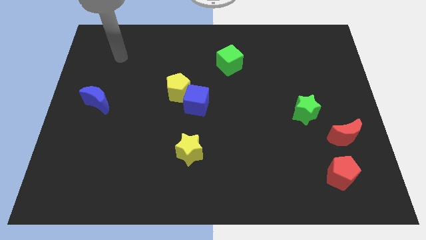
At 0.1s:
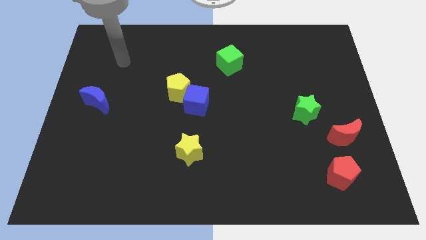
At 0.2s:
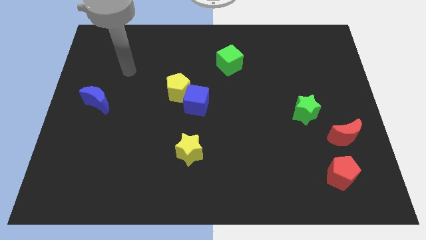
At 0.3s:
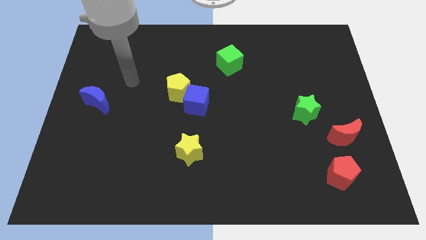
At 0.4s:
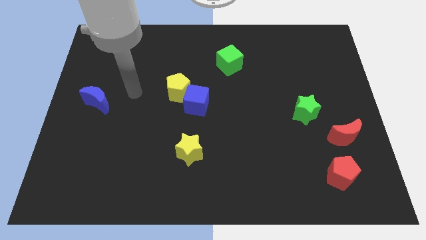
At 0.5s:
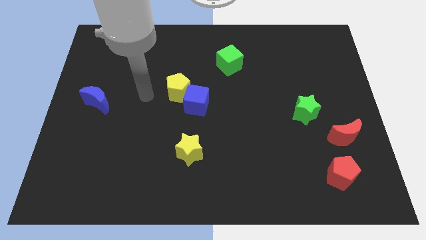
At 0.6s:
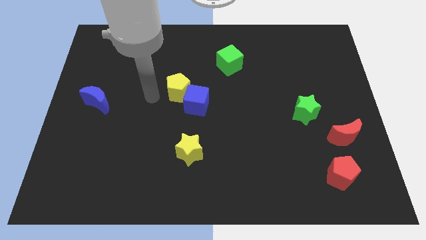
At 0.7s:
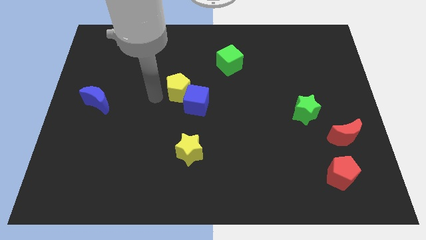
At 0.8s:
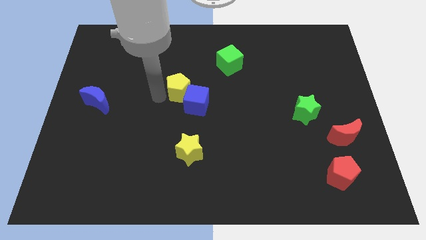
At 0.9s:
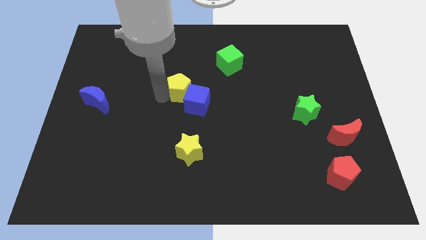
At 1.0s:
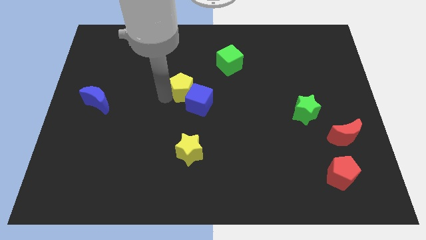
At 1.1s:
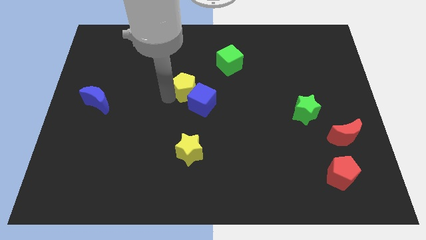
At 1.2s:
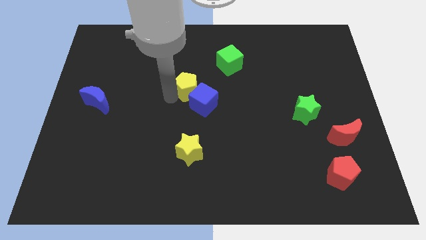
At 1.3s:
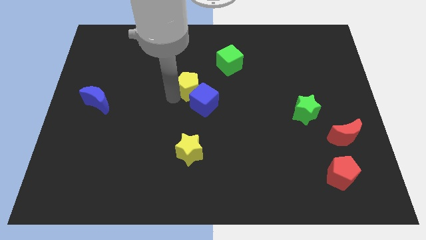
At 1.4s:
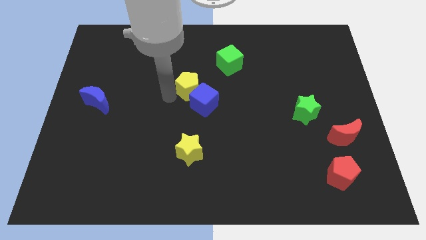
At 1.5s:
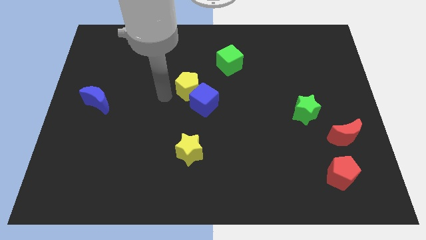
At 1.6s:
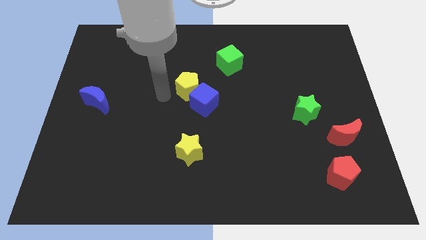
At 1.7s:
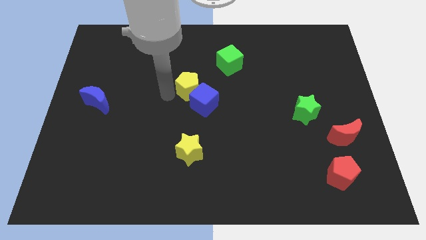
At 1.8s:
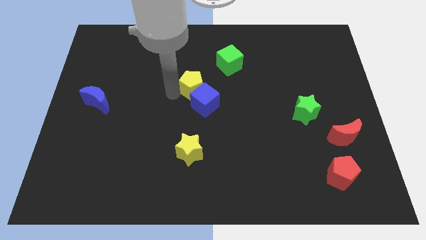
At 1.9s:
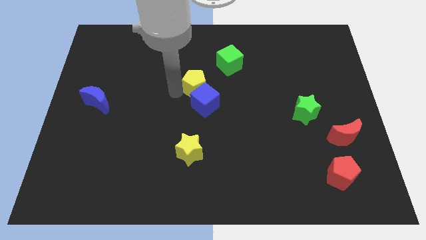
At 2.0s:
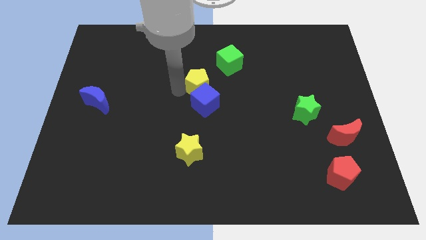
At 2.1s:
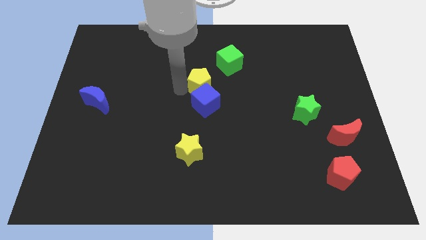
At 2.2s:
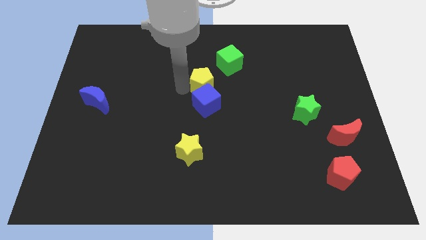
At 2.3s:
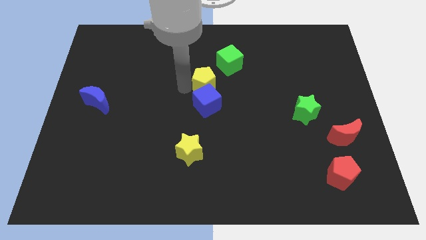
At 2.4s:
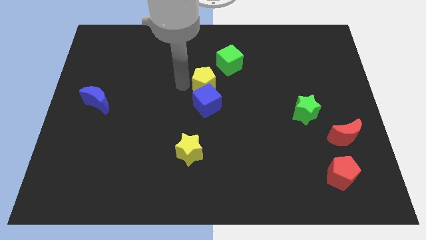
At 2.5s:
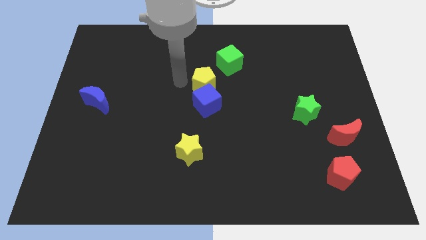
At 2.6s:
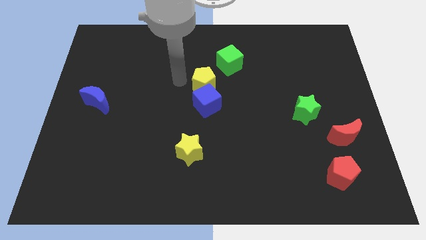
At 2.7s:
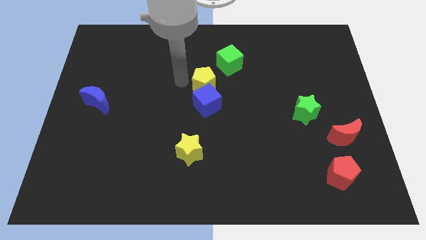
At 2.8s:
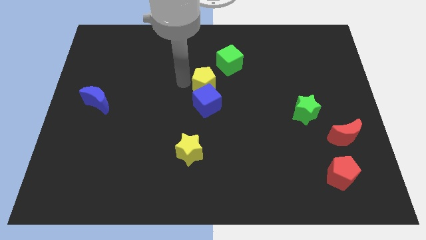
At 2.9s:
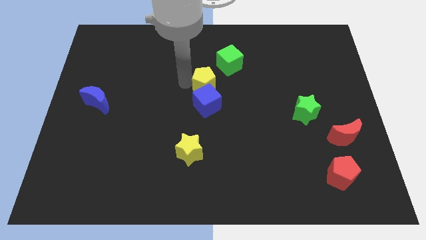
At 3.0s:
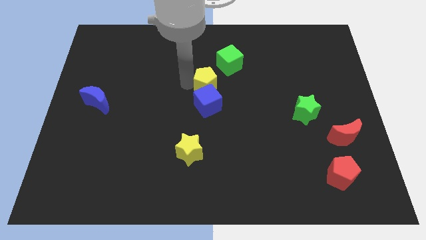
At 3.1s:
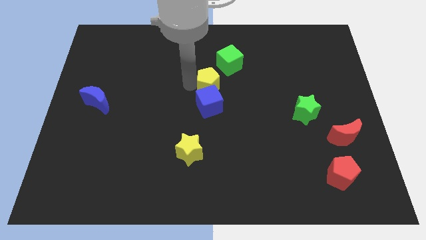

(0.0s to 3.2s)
slide the yellow pentagon right a little

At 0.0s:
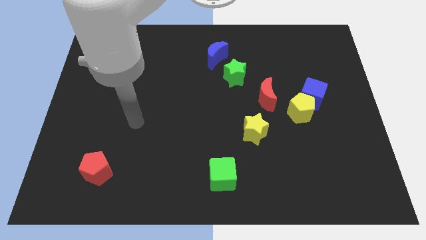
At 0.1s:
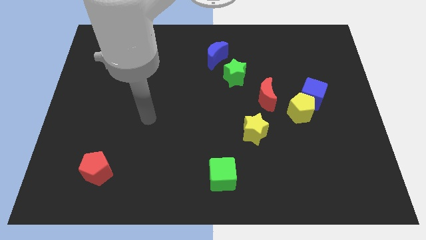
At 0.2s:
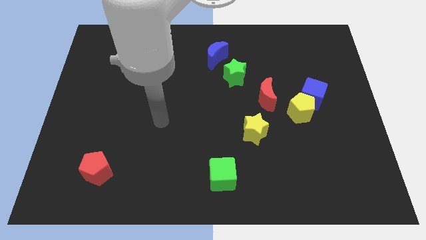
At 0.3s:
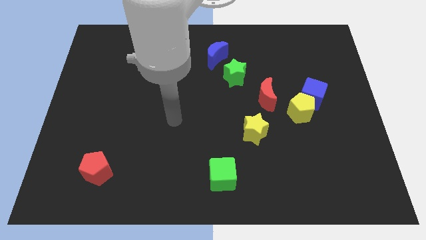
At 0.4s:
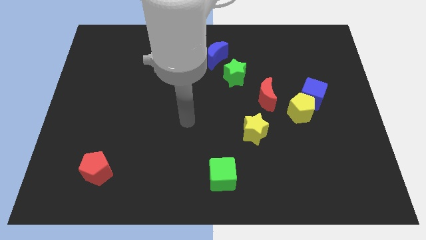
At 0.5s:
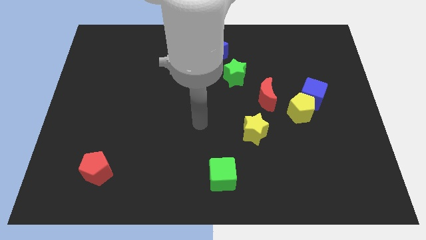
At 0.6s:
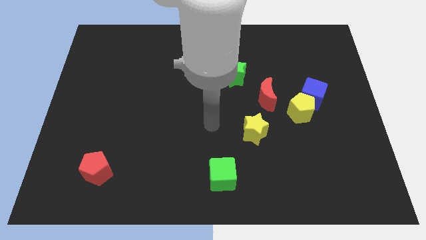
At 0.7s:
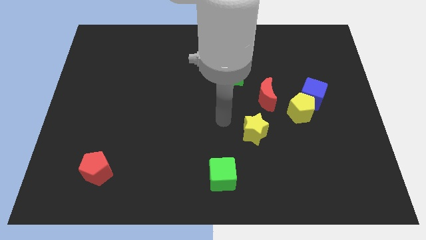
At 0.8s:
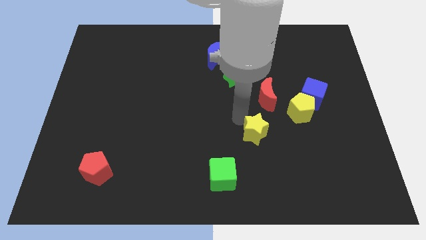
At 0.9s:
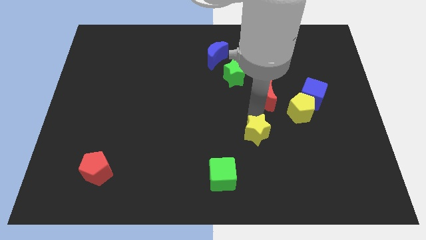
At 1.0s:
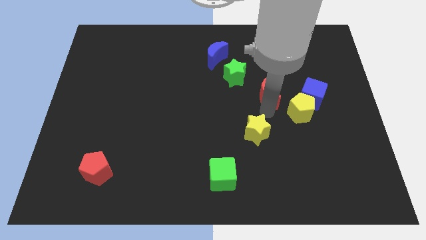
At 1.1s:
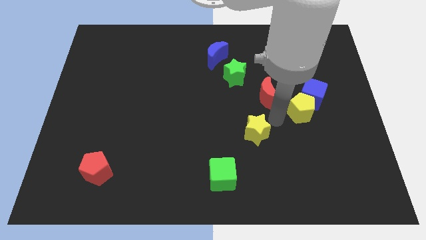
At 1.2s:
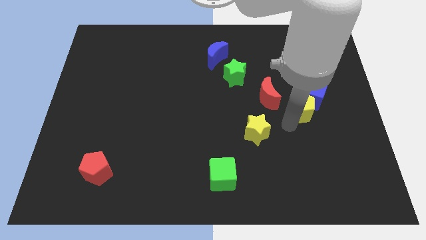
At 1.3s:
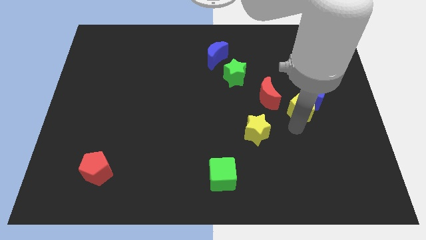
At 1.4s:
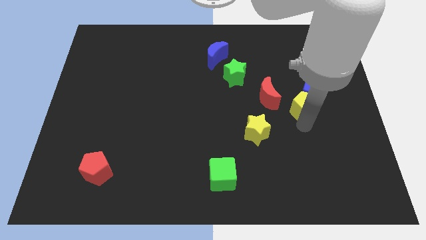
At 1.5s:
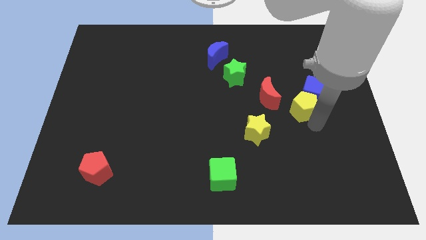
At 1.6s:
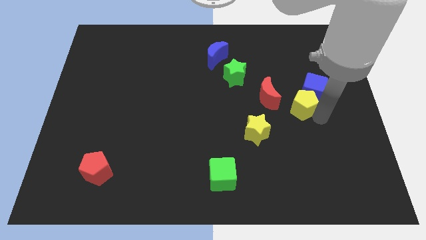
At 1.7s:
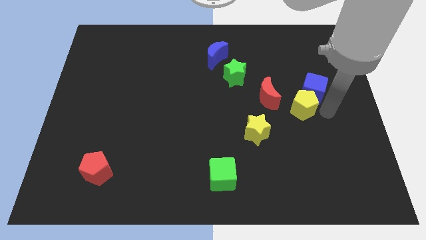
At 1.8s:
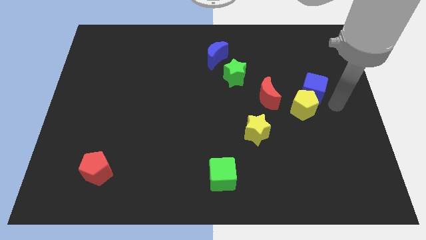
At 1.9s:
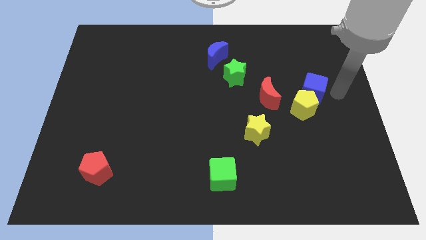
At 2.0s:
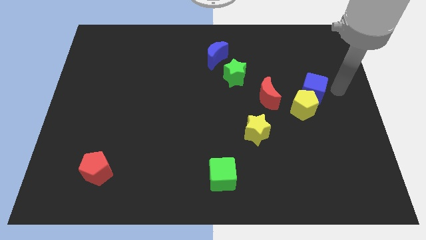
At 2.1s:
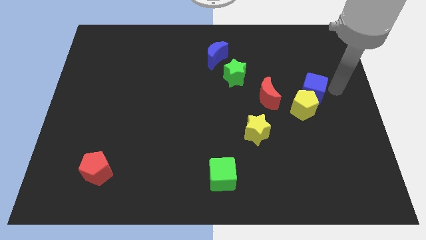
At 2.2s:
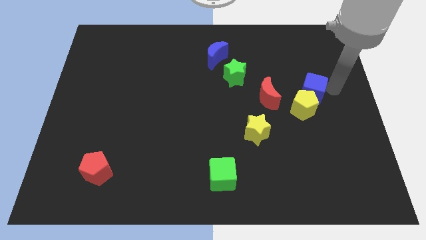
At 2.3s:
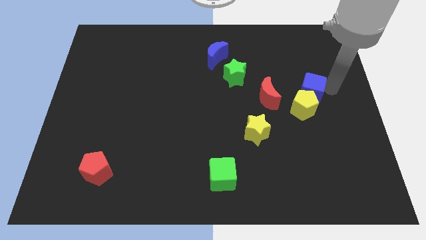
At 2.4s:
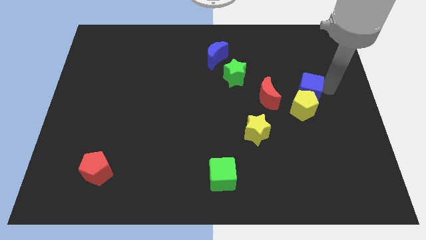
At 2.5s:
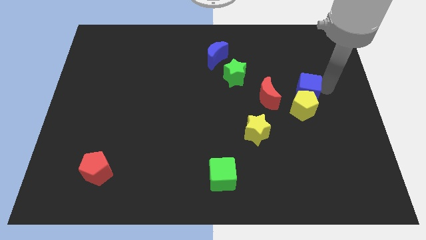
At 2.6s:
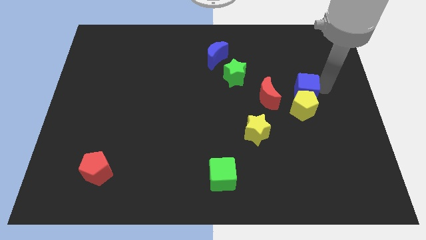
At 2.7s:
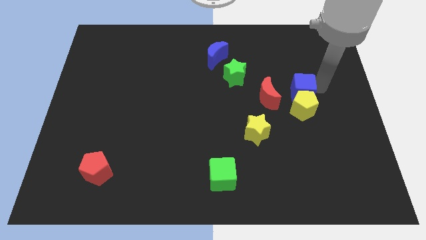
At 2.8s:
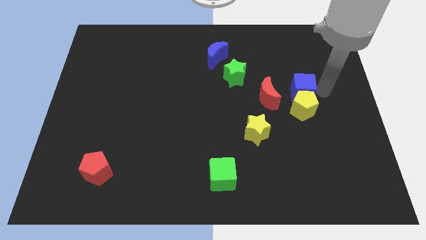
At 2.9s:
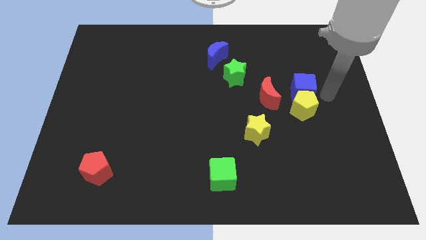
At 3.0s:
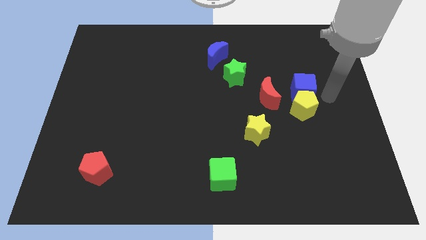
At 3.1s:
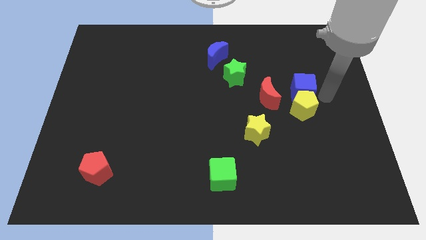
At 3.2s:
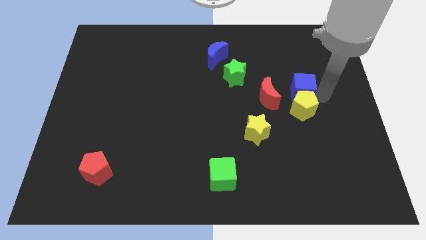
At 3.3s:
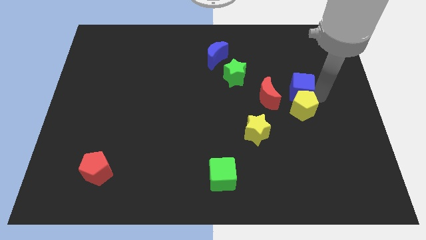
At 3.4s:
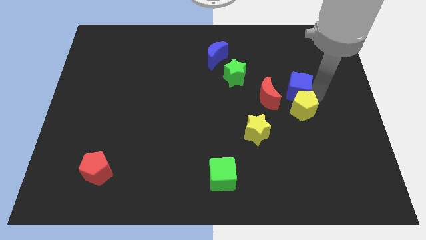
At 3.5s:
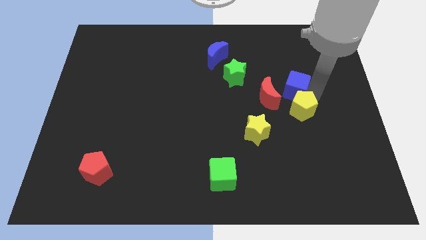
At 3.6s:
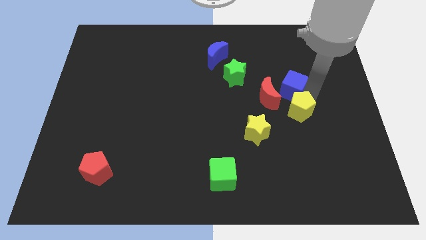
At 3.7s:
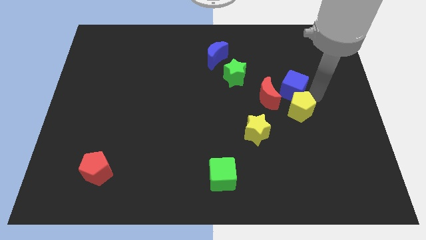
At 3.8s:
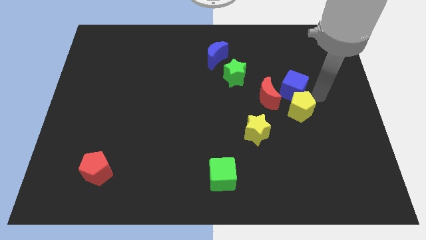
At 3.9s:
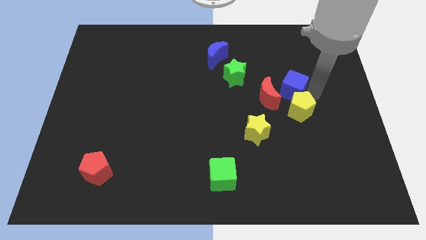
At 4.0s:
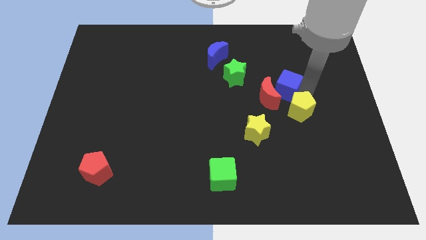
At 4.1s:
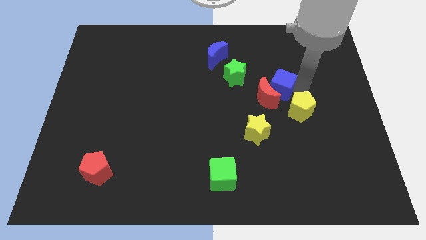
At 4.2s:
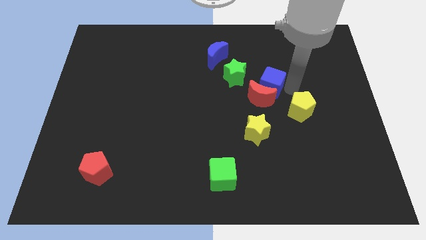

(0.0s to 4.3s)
push the blue cube to the left a little

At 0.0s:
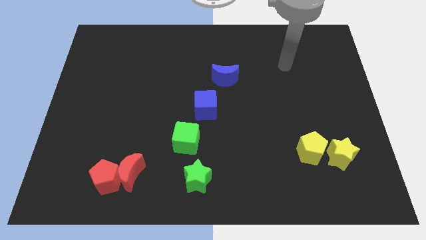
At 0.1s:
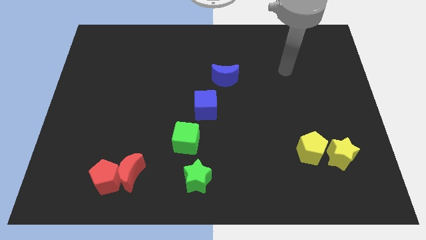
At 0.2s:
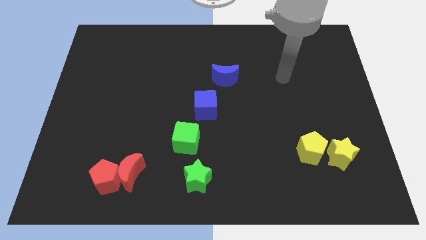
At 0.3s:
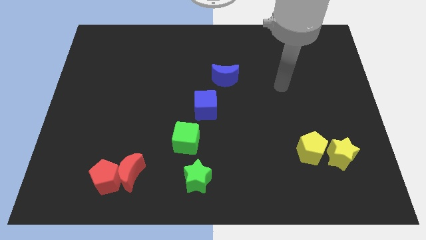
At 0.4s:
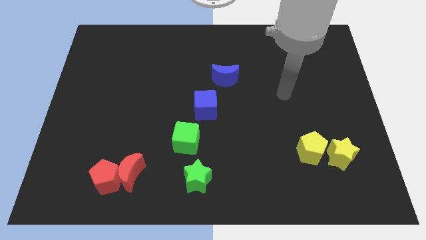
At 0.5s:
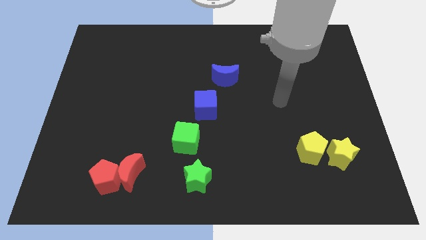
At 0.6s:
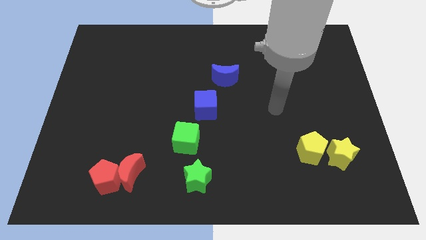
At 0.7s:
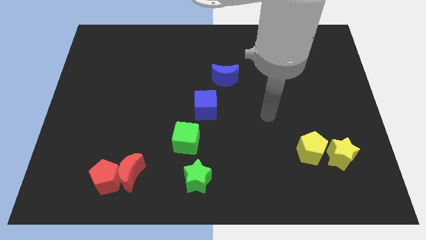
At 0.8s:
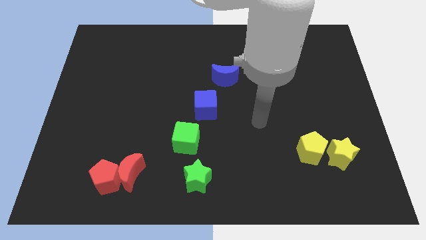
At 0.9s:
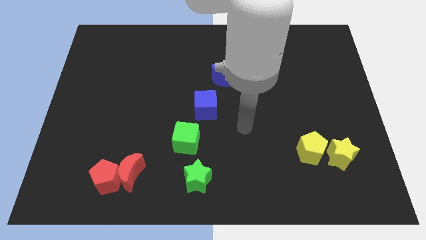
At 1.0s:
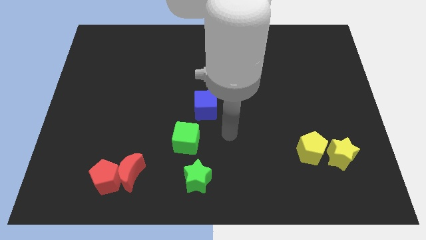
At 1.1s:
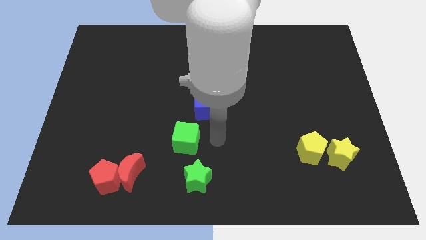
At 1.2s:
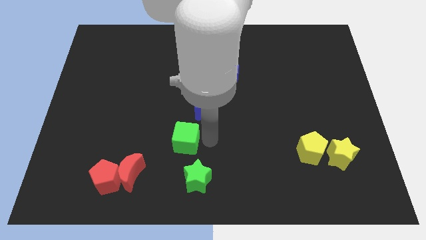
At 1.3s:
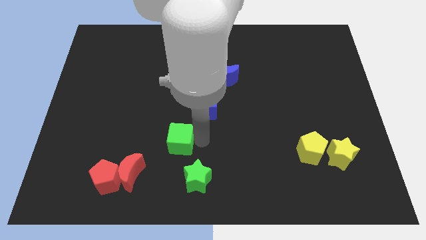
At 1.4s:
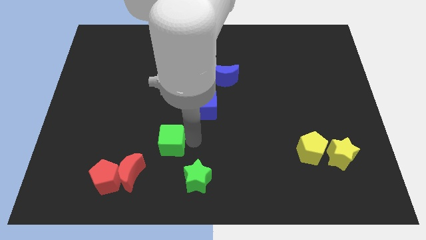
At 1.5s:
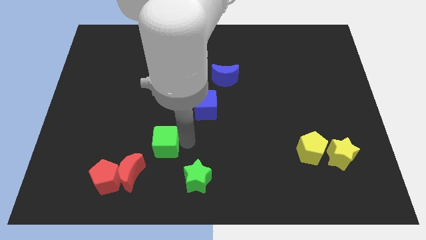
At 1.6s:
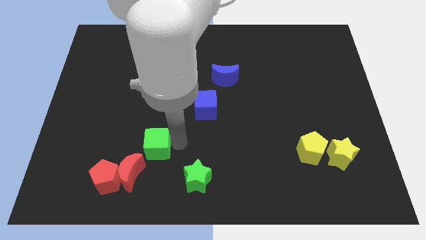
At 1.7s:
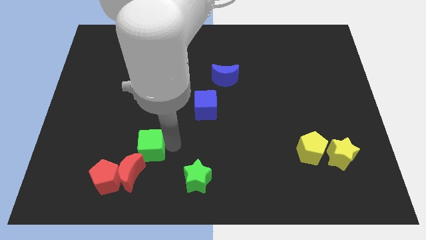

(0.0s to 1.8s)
slightly slide the green cube left
